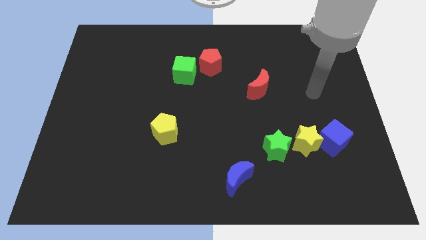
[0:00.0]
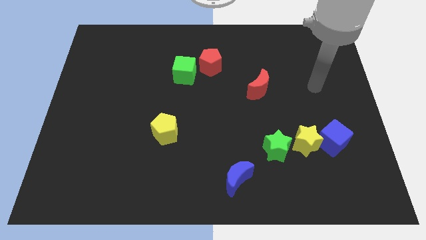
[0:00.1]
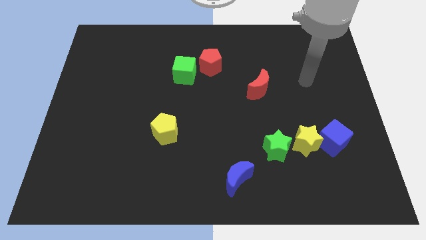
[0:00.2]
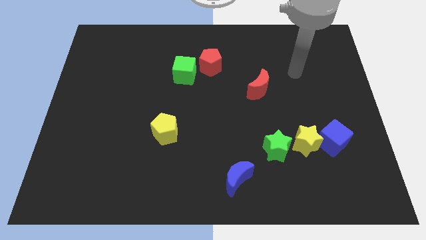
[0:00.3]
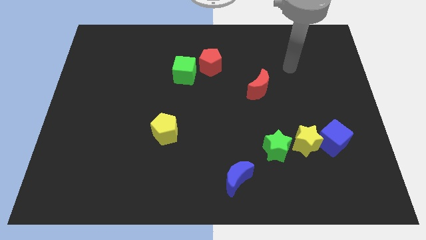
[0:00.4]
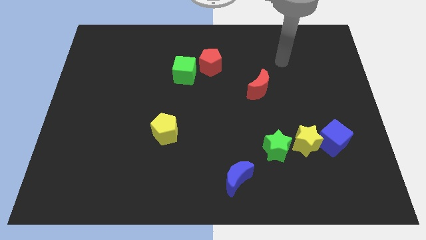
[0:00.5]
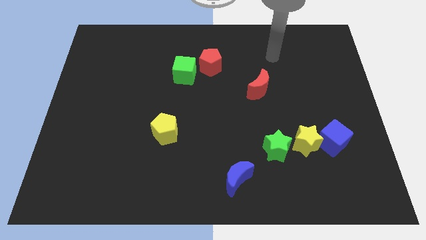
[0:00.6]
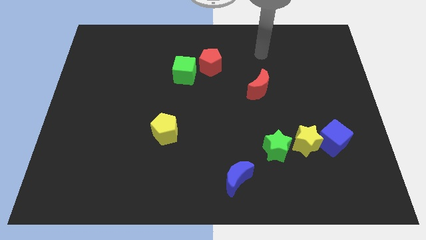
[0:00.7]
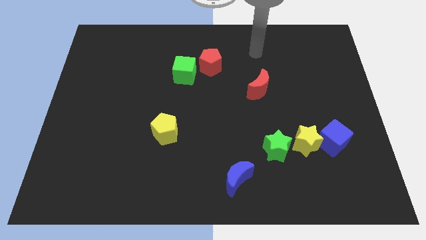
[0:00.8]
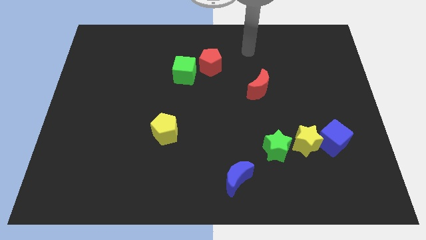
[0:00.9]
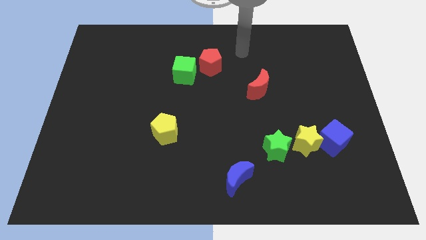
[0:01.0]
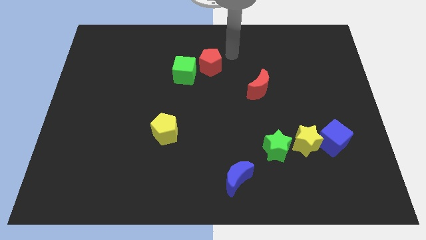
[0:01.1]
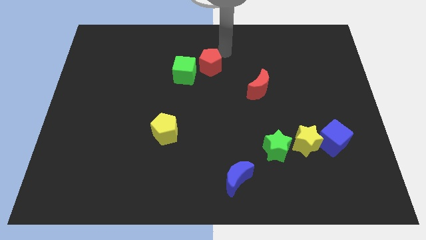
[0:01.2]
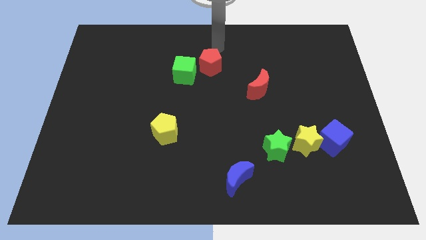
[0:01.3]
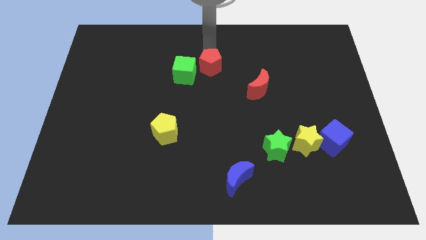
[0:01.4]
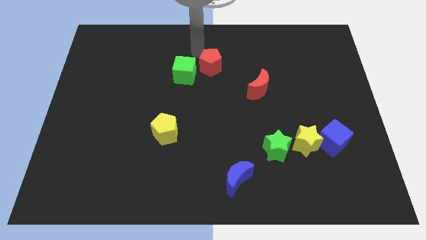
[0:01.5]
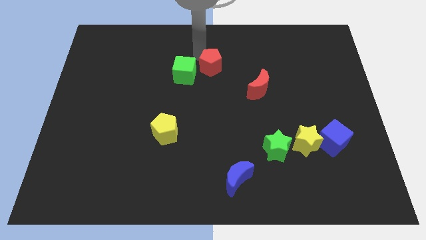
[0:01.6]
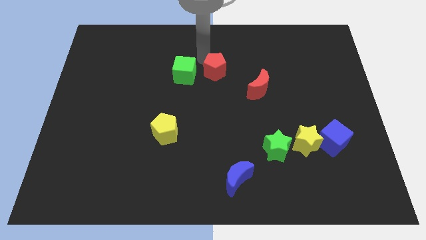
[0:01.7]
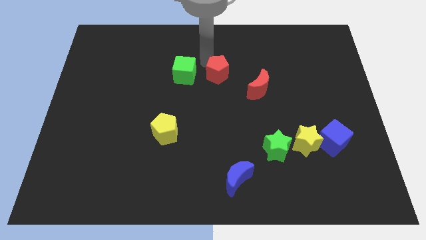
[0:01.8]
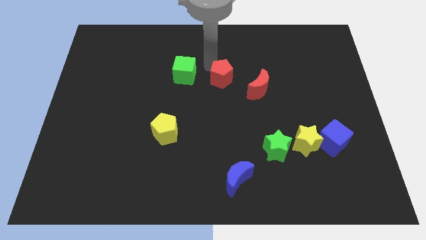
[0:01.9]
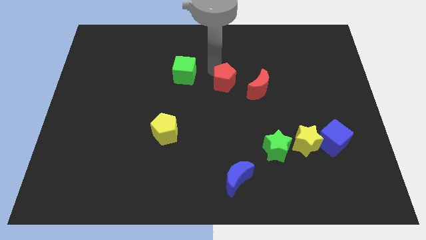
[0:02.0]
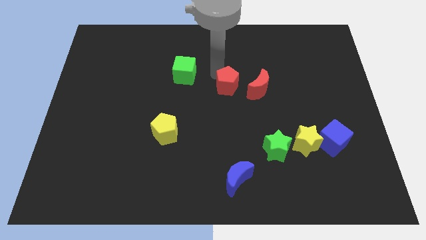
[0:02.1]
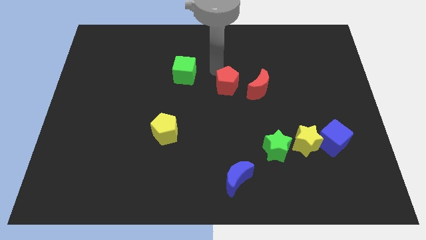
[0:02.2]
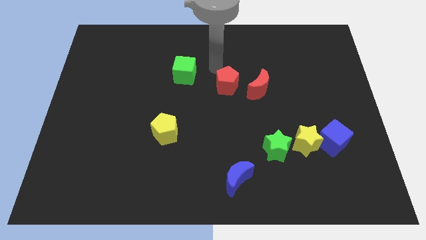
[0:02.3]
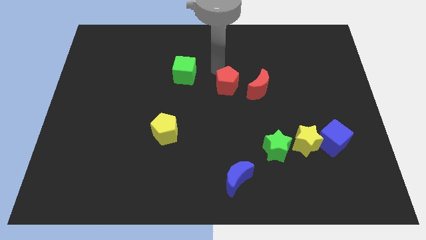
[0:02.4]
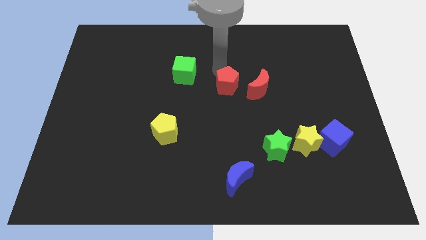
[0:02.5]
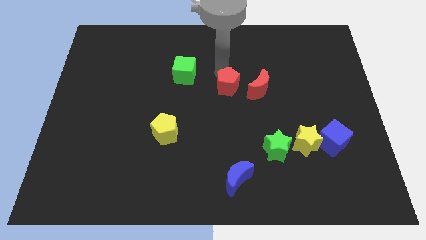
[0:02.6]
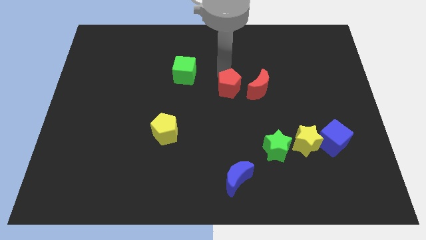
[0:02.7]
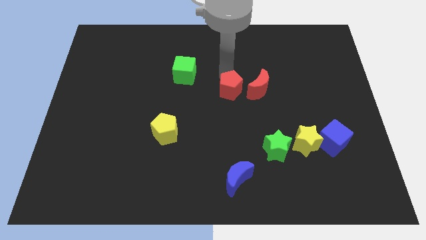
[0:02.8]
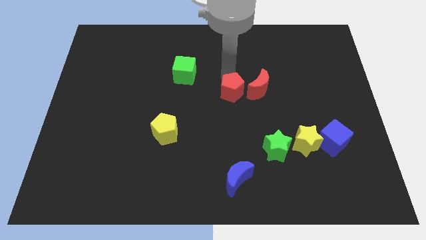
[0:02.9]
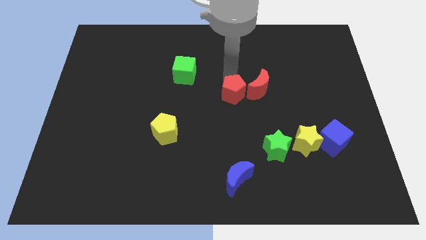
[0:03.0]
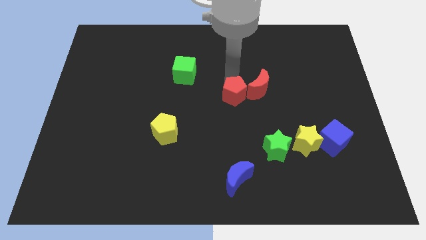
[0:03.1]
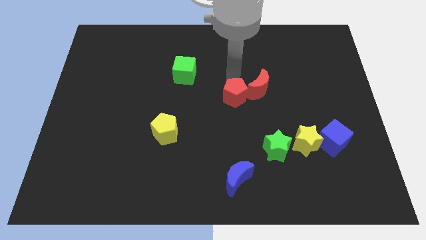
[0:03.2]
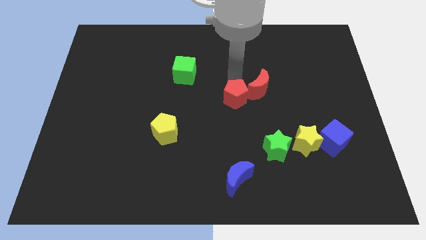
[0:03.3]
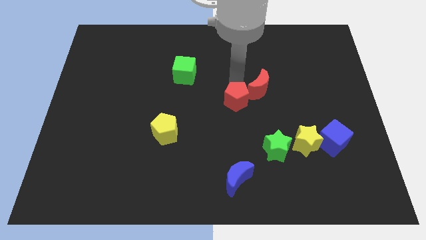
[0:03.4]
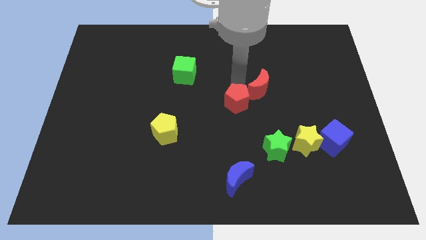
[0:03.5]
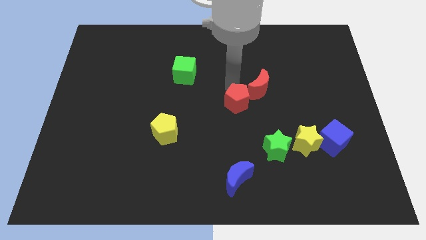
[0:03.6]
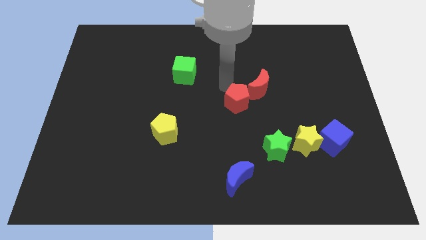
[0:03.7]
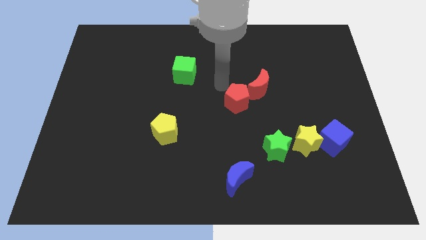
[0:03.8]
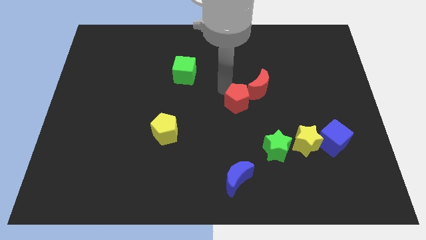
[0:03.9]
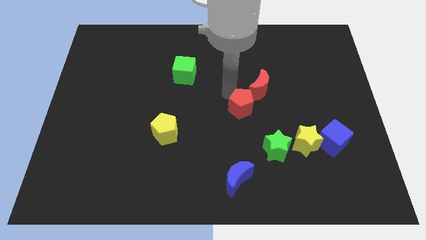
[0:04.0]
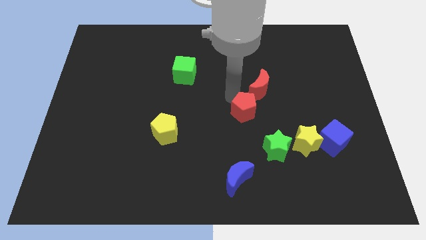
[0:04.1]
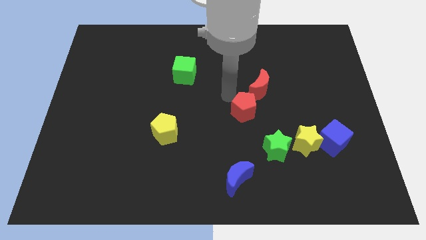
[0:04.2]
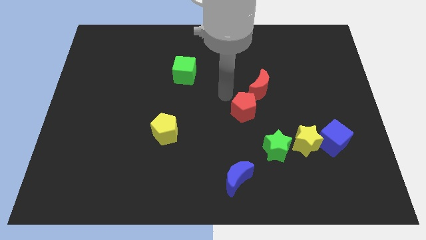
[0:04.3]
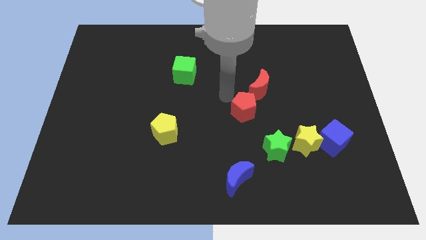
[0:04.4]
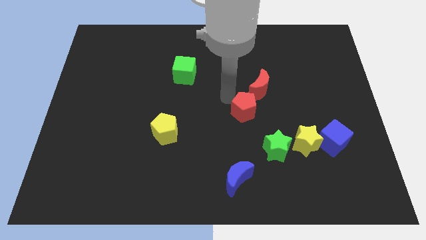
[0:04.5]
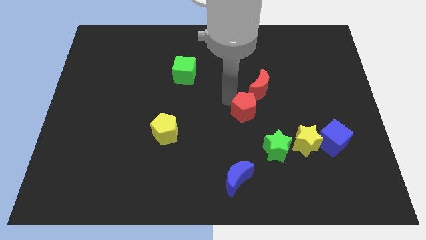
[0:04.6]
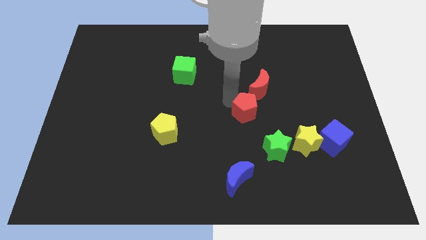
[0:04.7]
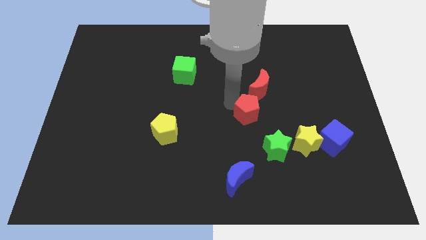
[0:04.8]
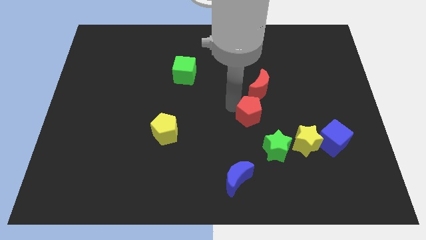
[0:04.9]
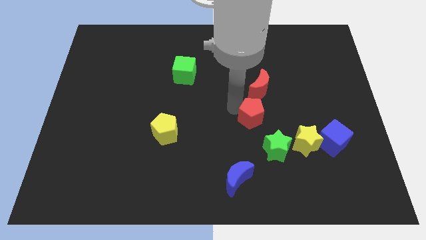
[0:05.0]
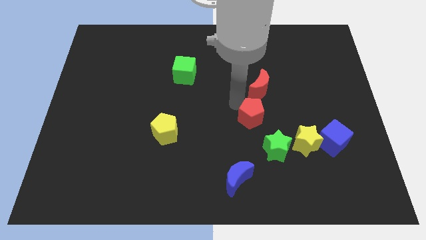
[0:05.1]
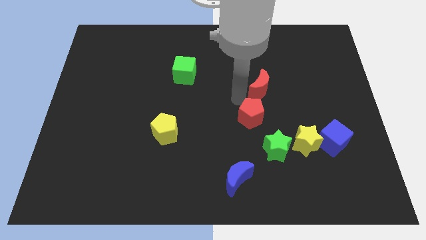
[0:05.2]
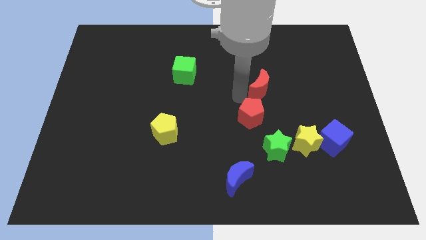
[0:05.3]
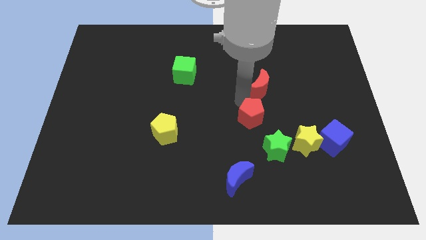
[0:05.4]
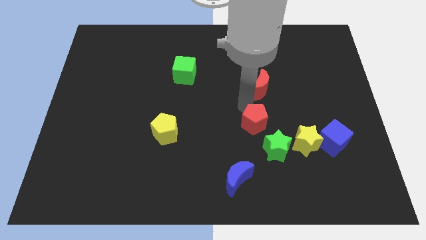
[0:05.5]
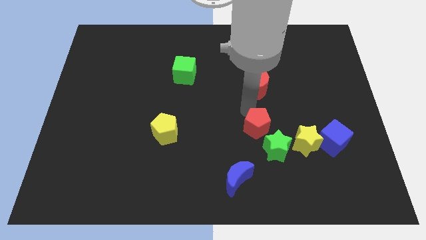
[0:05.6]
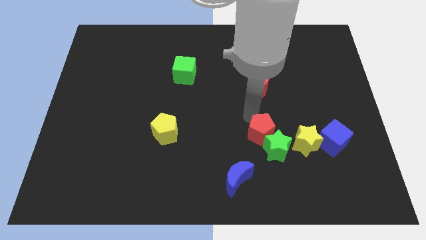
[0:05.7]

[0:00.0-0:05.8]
put the red pentagon next to the green star

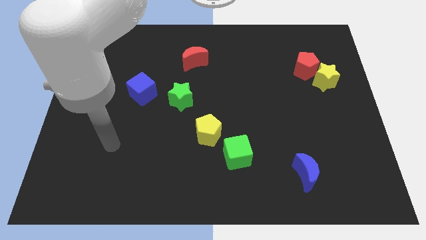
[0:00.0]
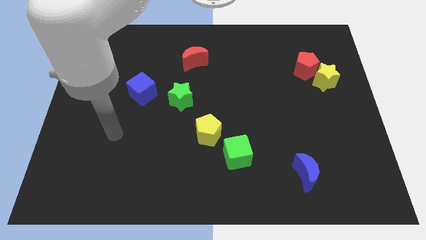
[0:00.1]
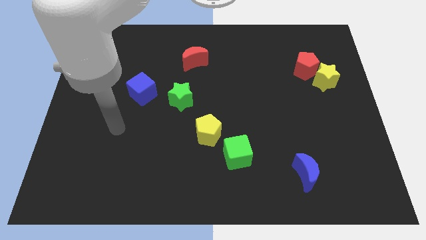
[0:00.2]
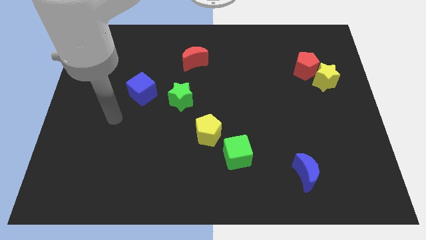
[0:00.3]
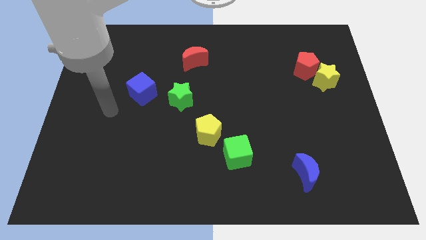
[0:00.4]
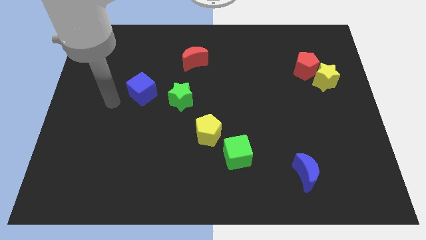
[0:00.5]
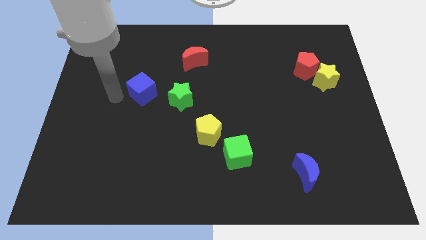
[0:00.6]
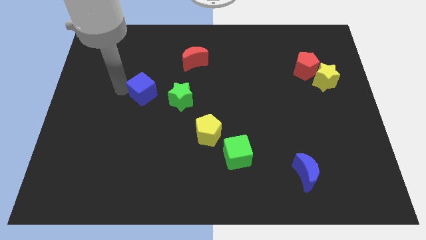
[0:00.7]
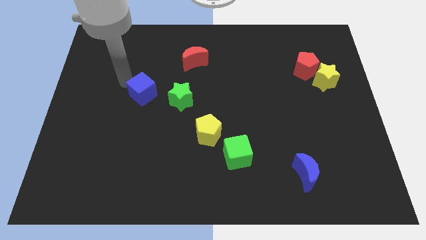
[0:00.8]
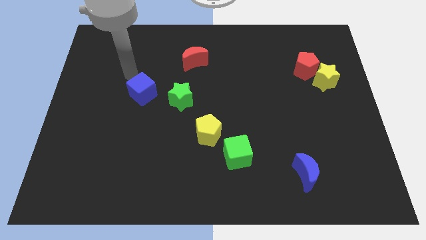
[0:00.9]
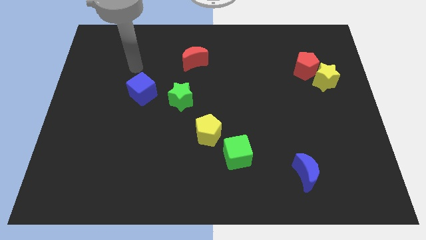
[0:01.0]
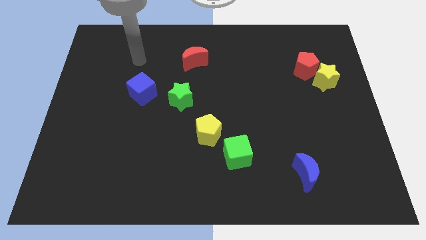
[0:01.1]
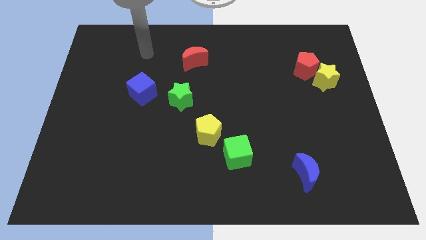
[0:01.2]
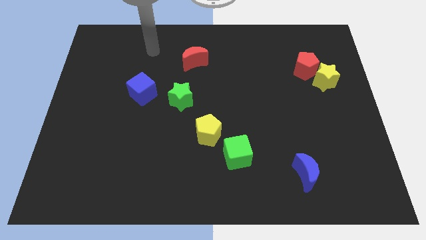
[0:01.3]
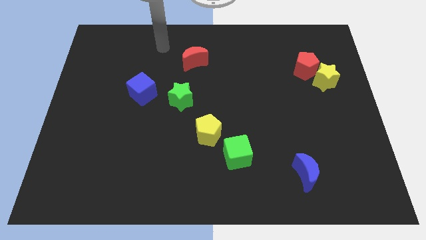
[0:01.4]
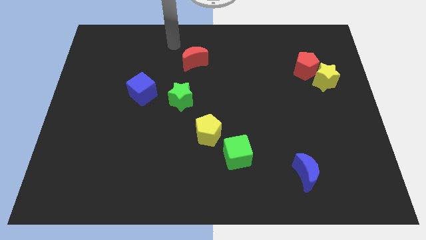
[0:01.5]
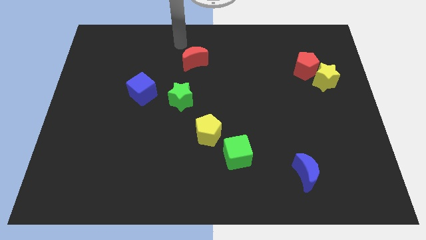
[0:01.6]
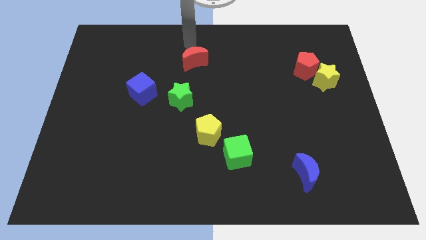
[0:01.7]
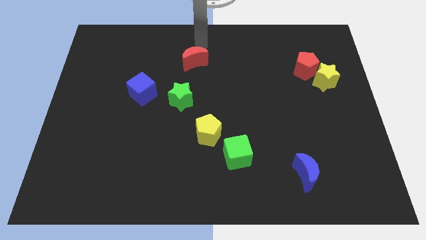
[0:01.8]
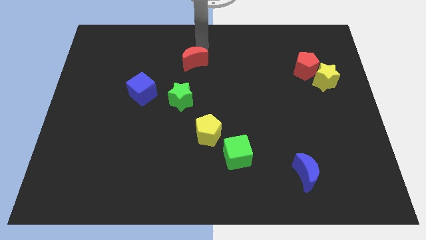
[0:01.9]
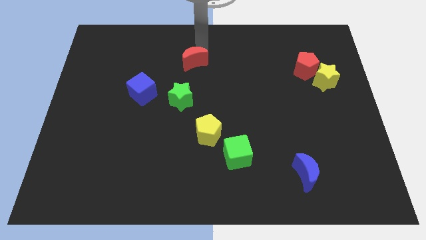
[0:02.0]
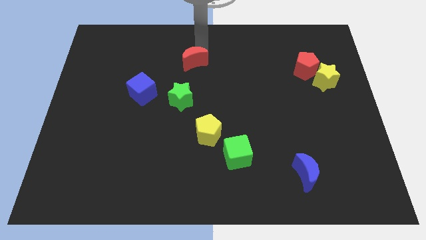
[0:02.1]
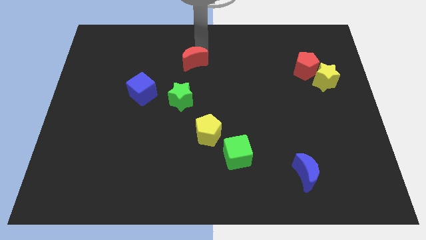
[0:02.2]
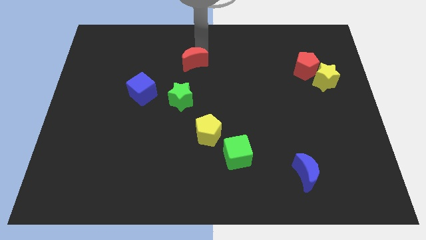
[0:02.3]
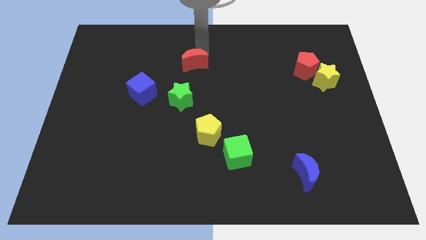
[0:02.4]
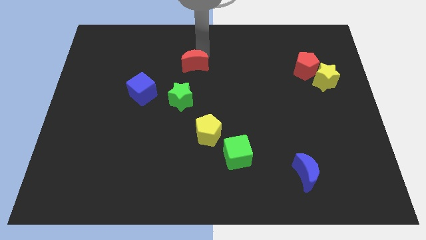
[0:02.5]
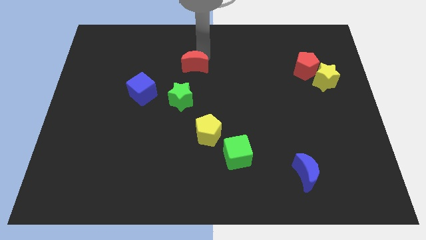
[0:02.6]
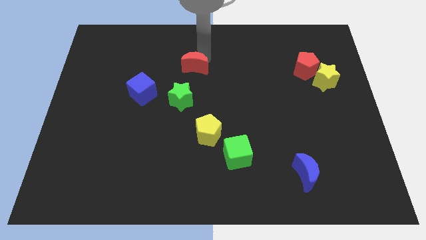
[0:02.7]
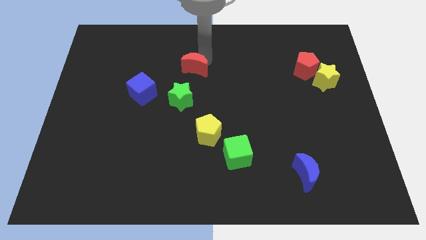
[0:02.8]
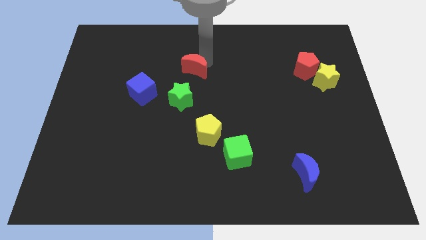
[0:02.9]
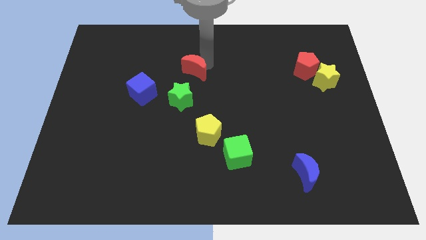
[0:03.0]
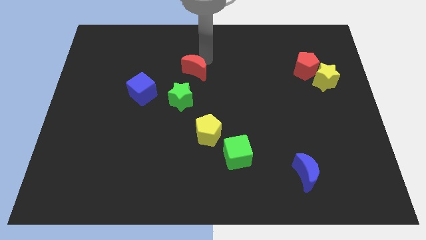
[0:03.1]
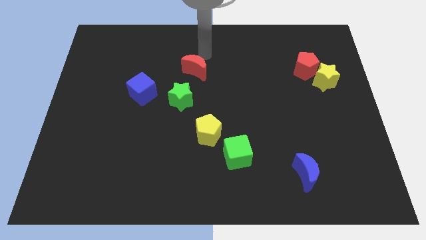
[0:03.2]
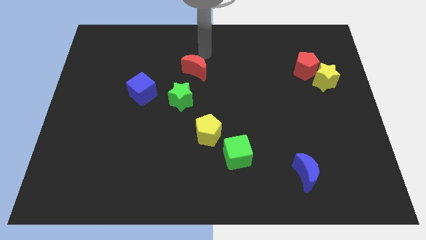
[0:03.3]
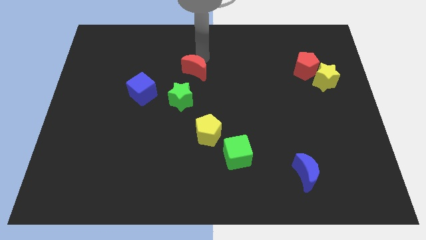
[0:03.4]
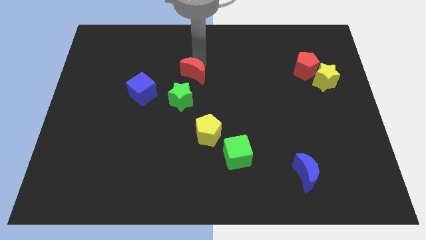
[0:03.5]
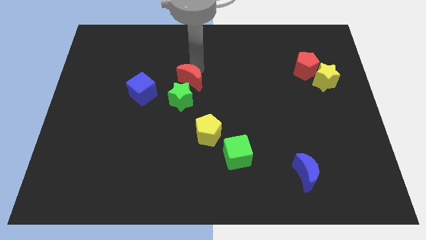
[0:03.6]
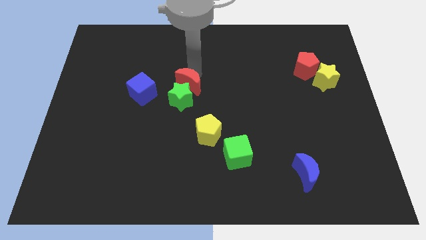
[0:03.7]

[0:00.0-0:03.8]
push the red moon towards the green star
